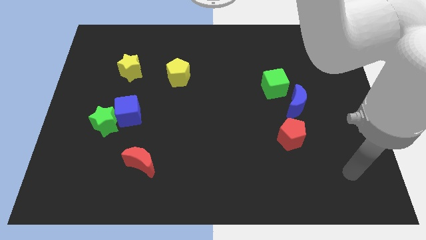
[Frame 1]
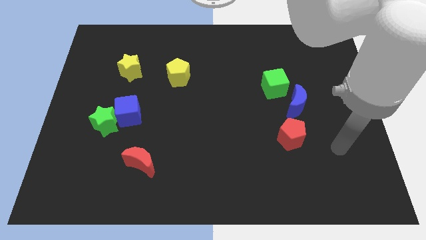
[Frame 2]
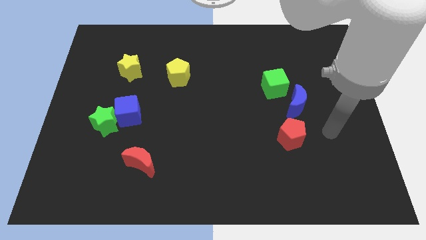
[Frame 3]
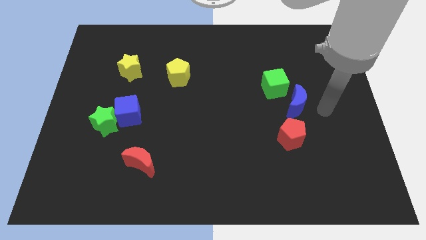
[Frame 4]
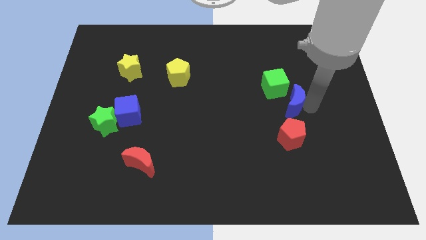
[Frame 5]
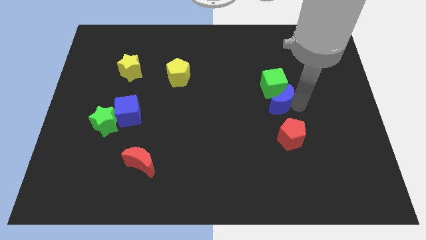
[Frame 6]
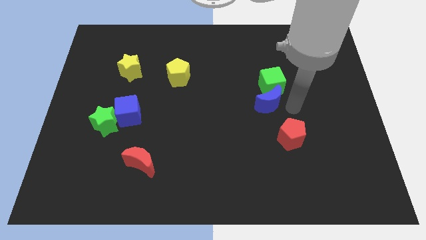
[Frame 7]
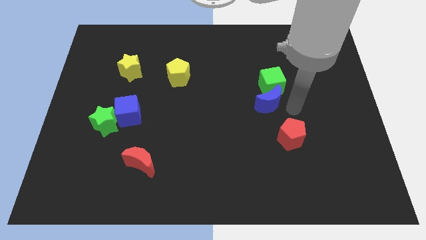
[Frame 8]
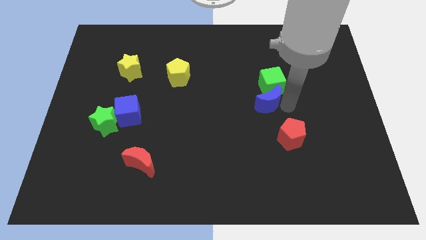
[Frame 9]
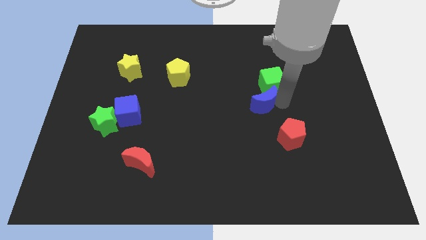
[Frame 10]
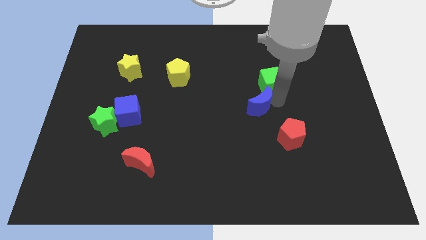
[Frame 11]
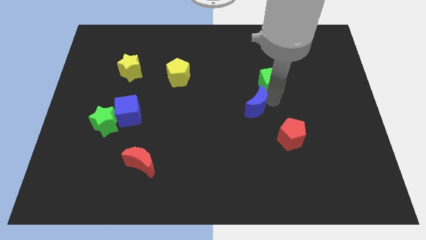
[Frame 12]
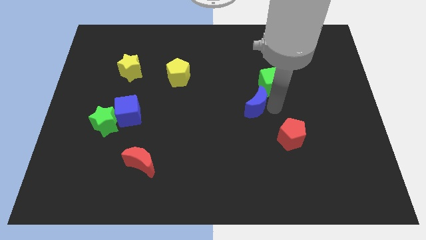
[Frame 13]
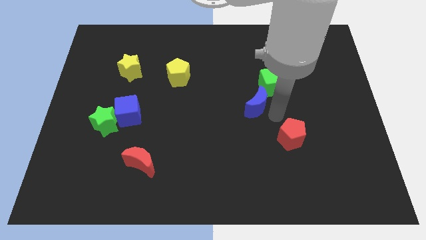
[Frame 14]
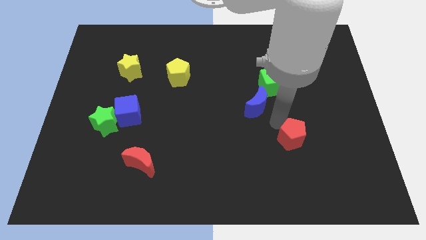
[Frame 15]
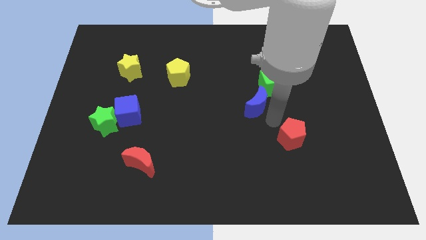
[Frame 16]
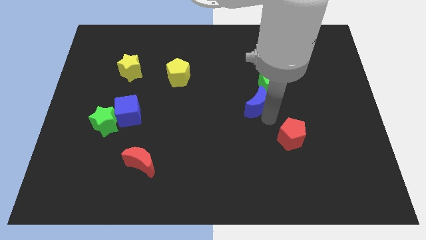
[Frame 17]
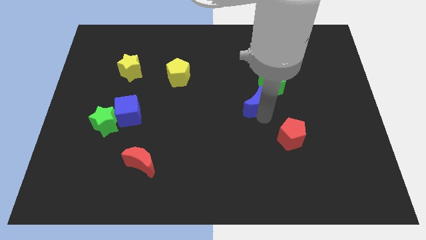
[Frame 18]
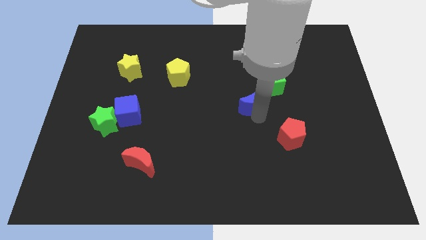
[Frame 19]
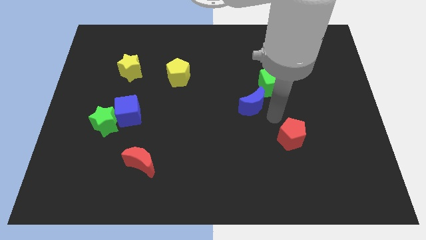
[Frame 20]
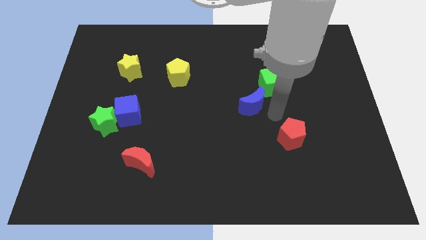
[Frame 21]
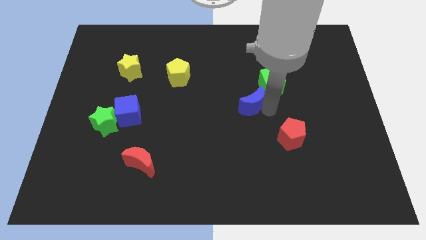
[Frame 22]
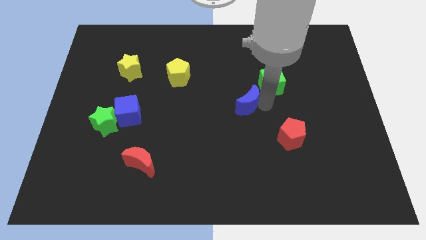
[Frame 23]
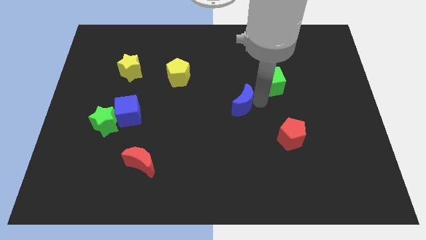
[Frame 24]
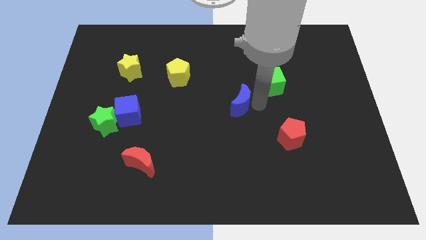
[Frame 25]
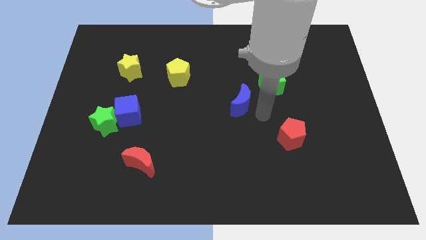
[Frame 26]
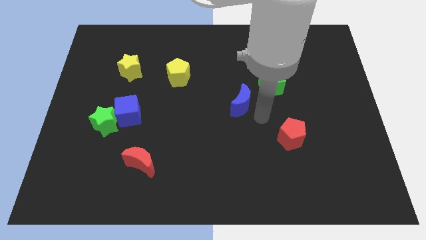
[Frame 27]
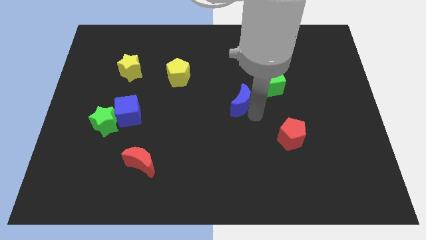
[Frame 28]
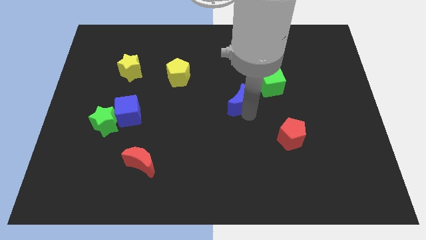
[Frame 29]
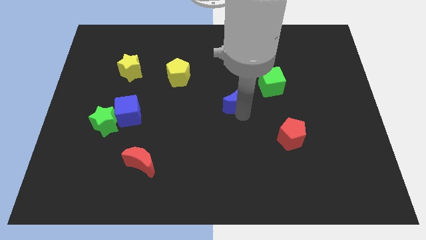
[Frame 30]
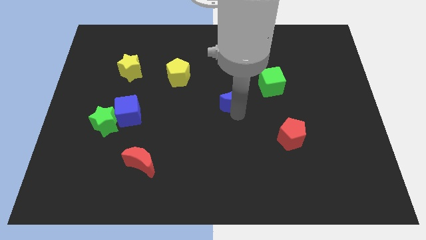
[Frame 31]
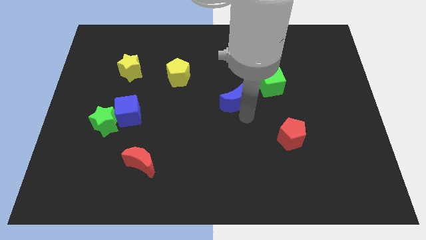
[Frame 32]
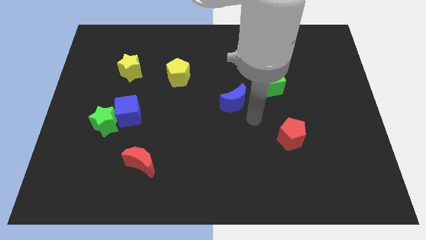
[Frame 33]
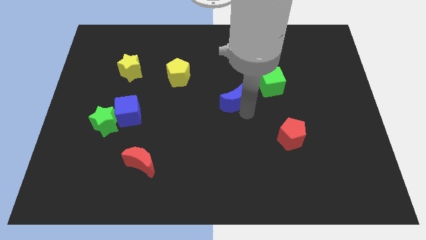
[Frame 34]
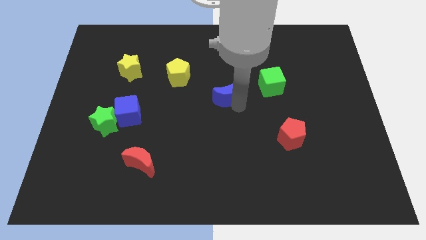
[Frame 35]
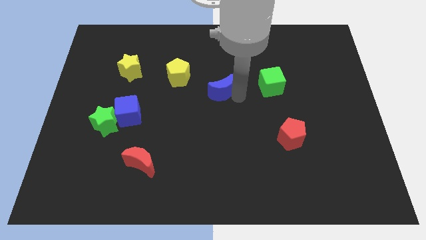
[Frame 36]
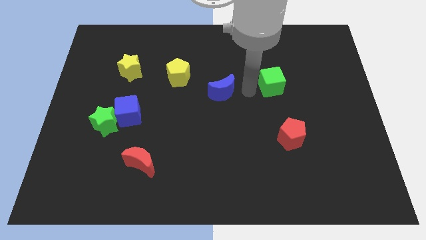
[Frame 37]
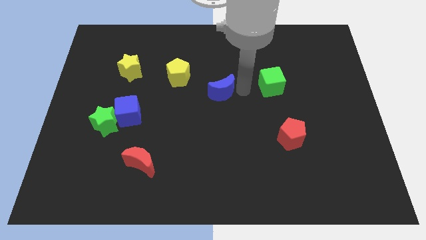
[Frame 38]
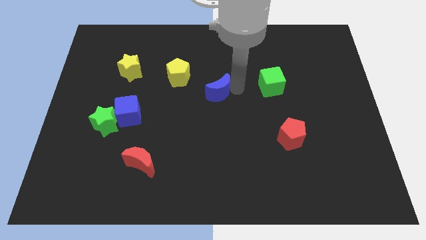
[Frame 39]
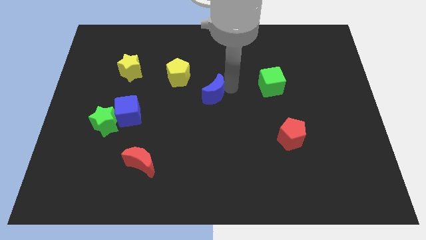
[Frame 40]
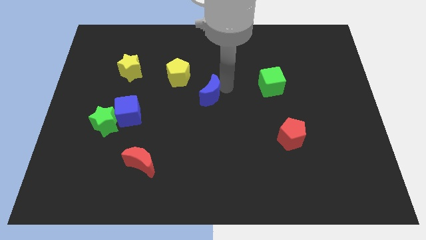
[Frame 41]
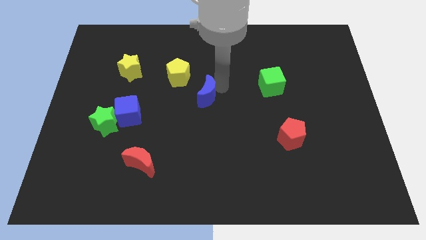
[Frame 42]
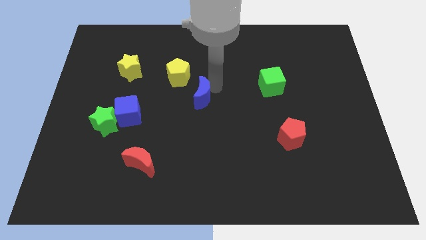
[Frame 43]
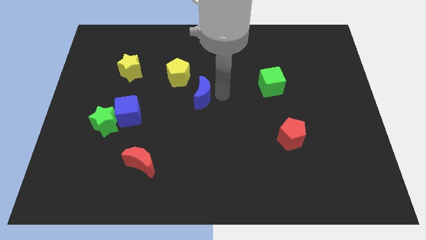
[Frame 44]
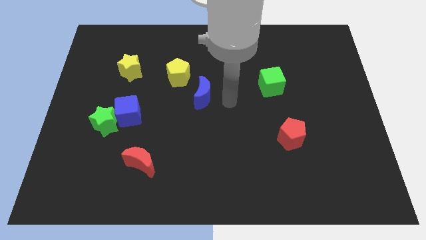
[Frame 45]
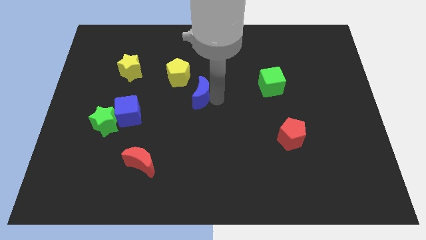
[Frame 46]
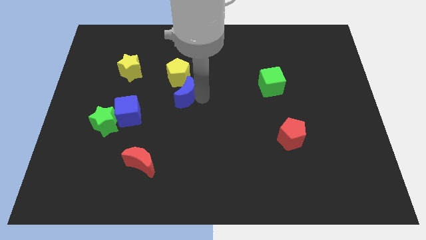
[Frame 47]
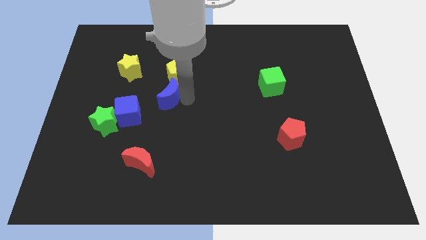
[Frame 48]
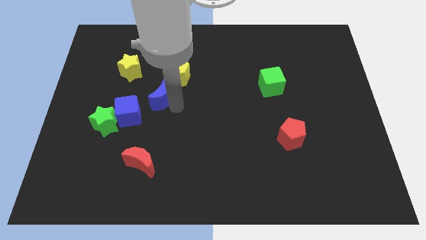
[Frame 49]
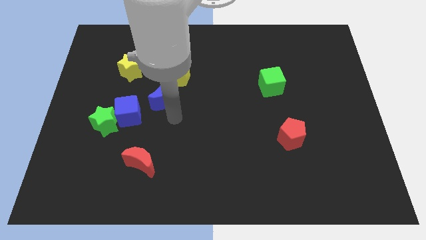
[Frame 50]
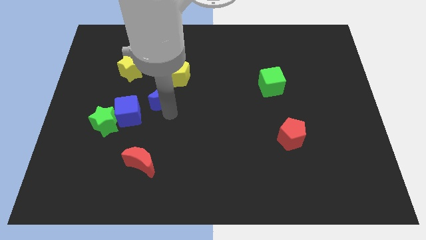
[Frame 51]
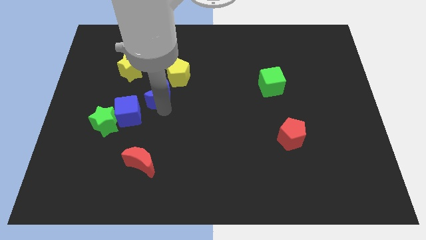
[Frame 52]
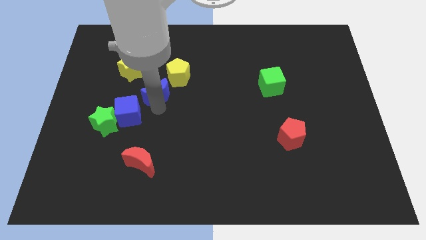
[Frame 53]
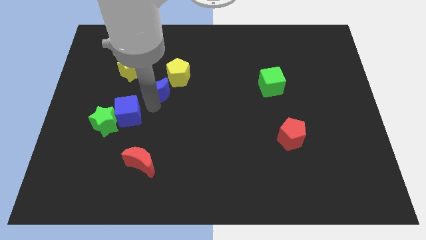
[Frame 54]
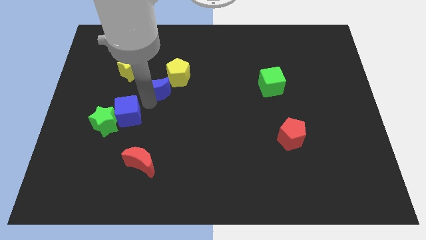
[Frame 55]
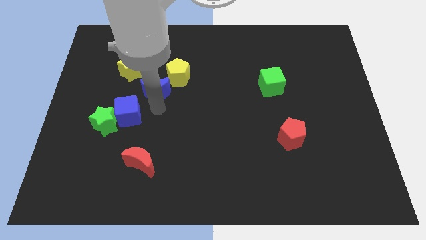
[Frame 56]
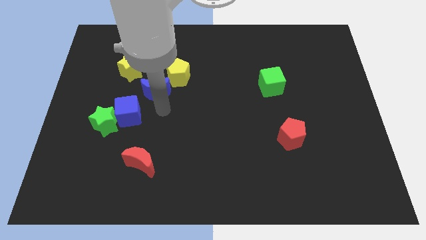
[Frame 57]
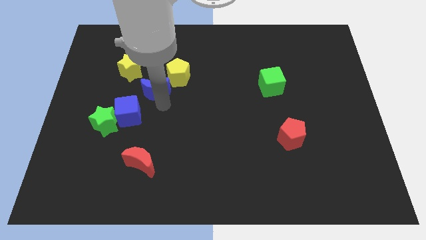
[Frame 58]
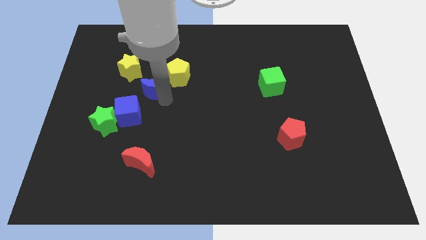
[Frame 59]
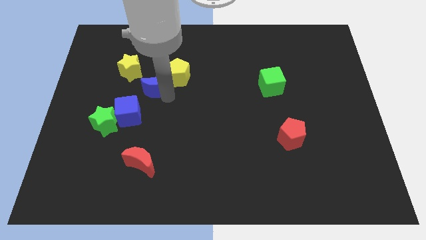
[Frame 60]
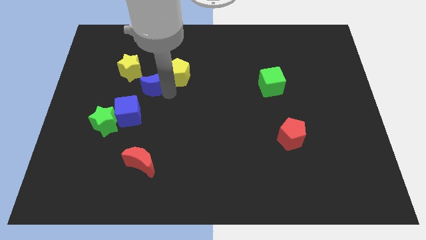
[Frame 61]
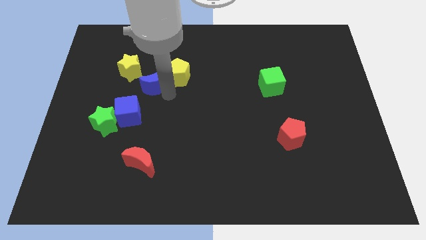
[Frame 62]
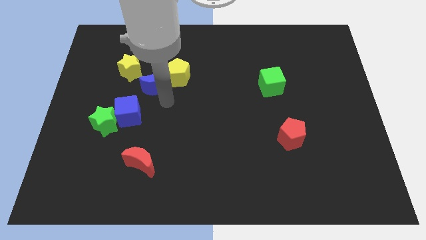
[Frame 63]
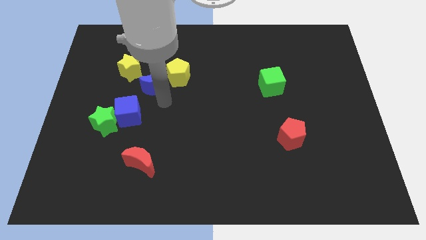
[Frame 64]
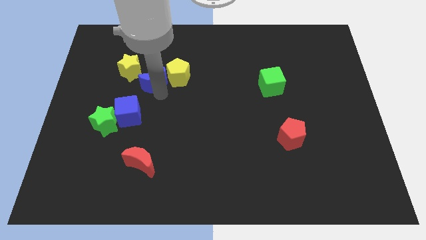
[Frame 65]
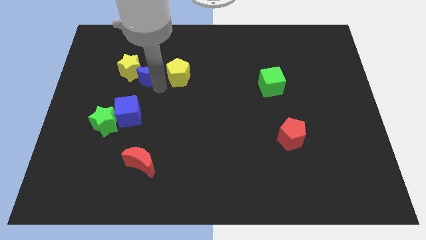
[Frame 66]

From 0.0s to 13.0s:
put the blue moon towards the yellow star
